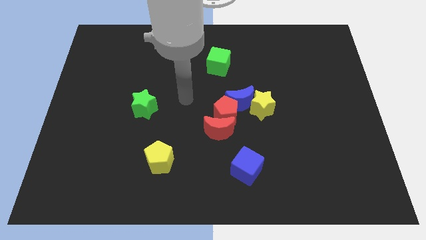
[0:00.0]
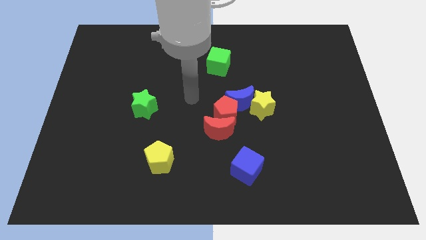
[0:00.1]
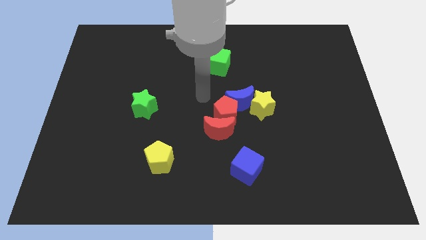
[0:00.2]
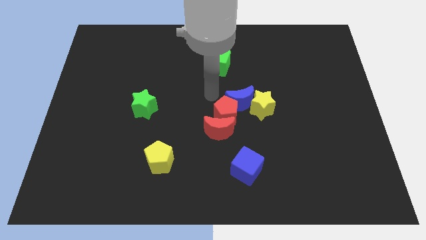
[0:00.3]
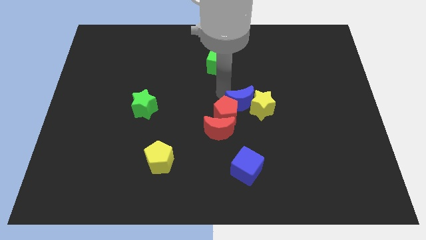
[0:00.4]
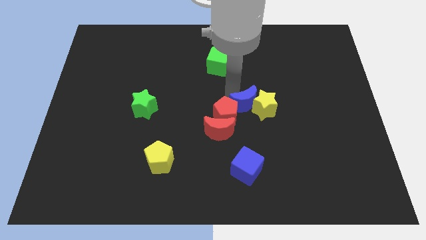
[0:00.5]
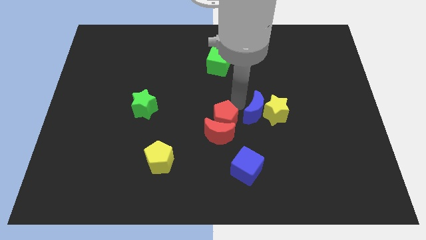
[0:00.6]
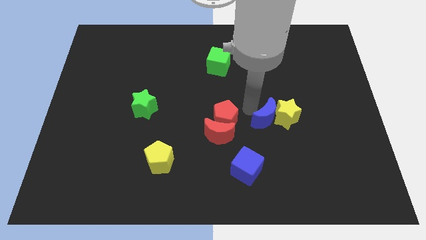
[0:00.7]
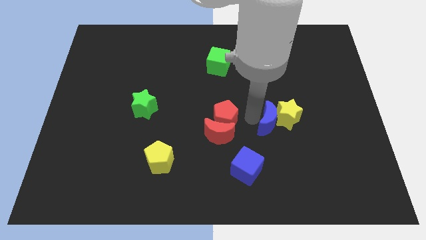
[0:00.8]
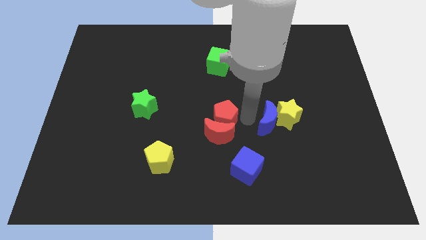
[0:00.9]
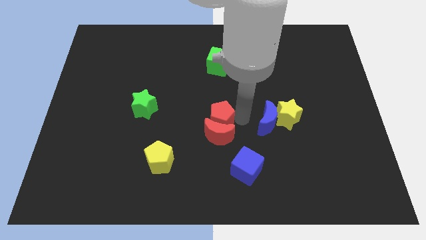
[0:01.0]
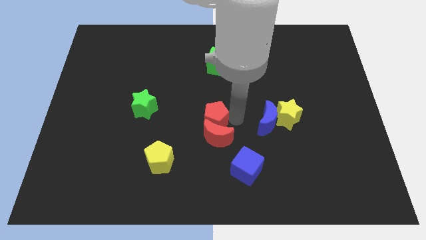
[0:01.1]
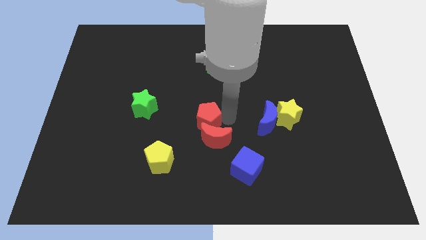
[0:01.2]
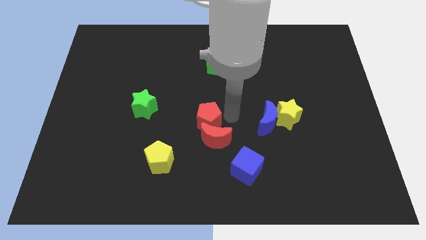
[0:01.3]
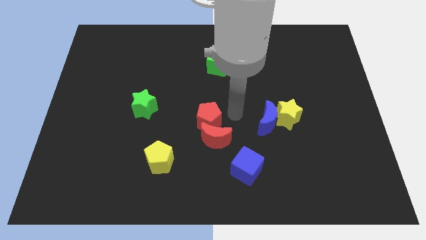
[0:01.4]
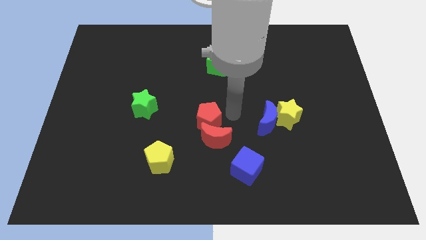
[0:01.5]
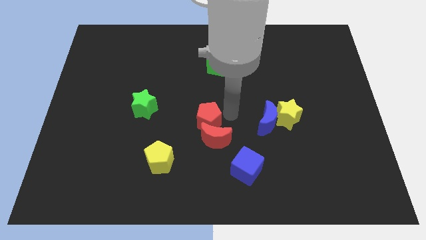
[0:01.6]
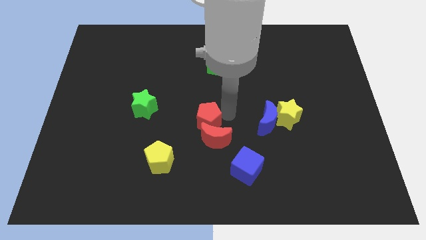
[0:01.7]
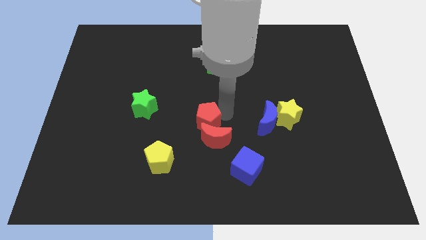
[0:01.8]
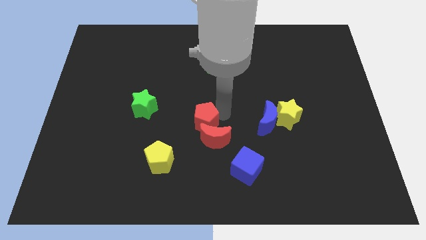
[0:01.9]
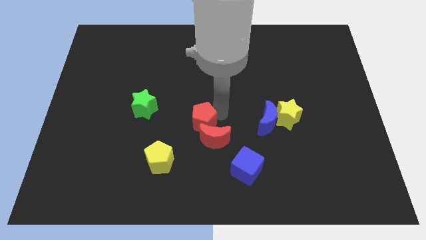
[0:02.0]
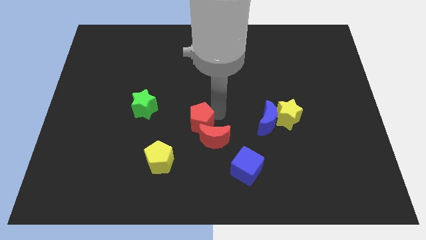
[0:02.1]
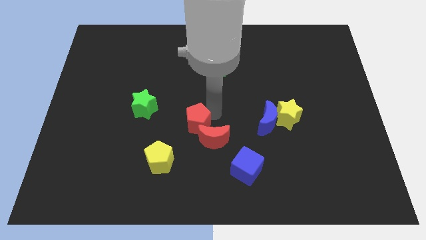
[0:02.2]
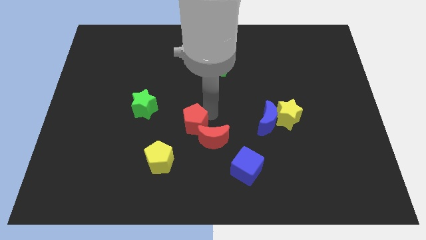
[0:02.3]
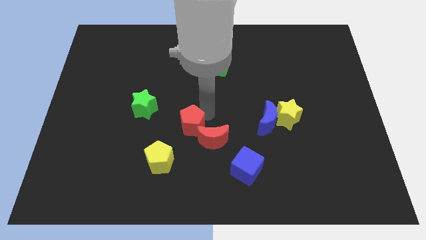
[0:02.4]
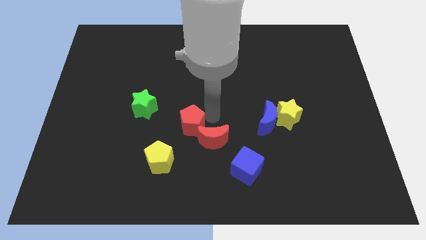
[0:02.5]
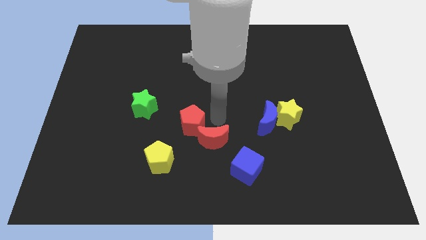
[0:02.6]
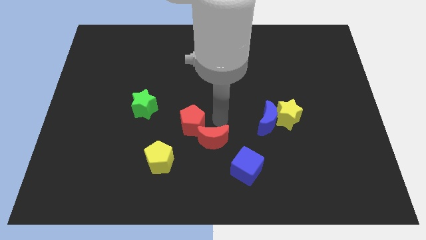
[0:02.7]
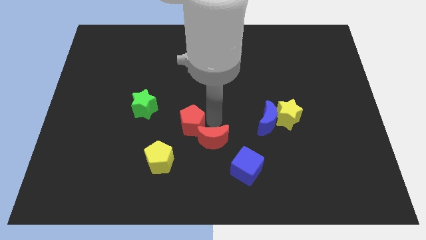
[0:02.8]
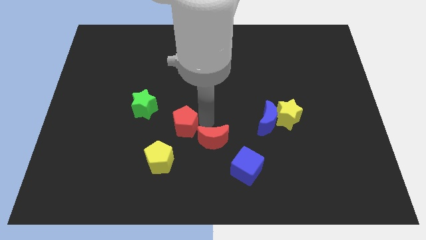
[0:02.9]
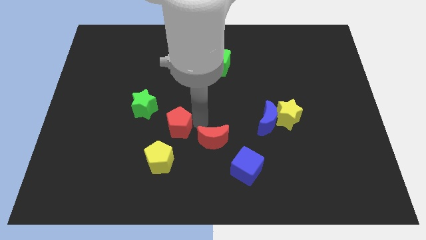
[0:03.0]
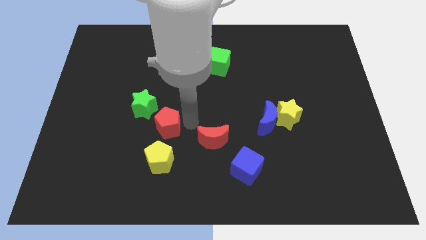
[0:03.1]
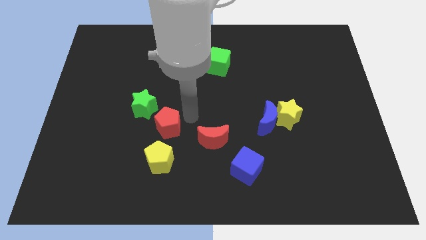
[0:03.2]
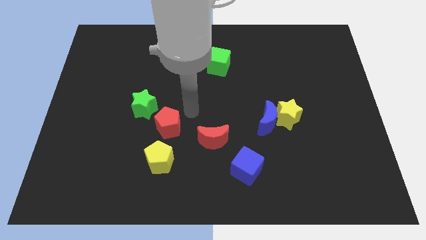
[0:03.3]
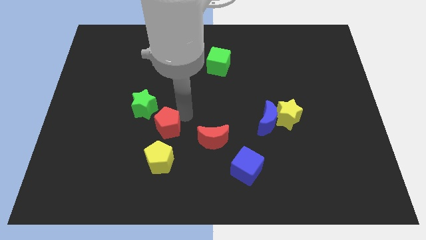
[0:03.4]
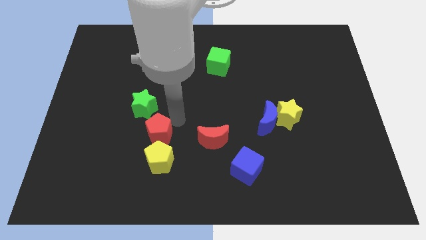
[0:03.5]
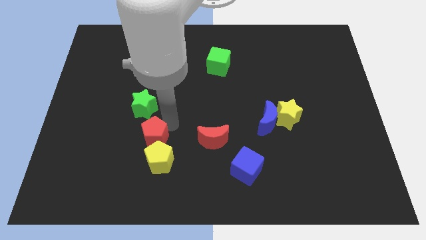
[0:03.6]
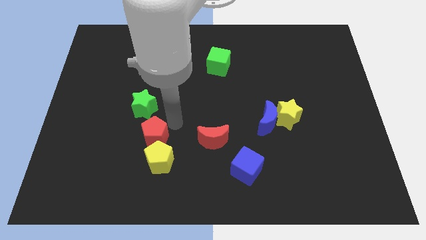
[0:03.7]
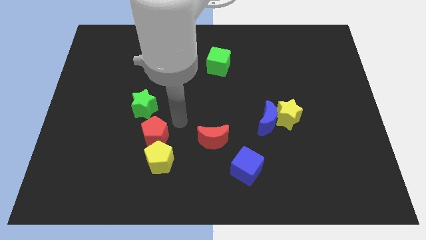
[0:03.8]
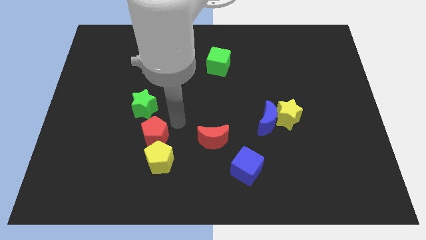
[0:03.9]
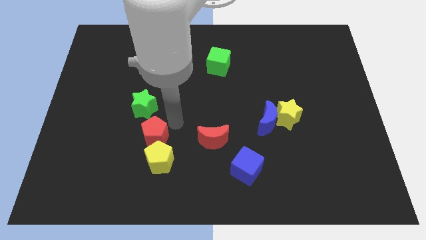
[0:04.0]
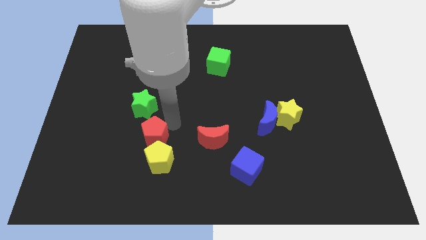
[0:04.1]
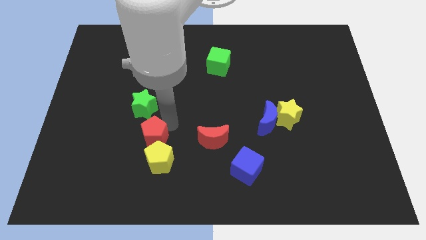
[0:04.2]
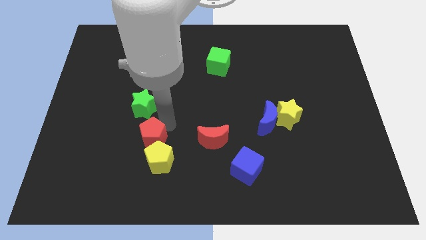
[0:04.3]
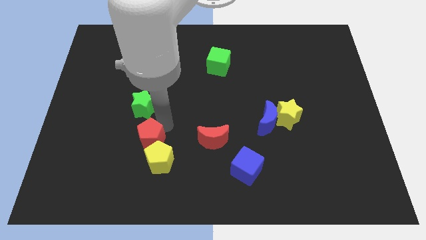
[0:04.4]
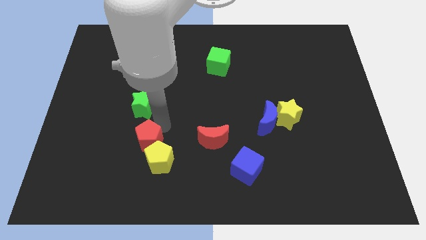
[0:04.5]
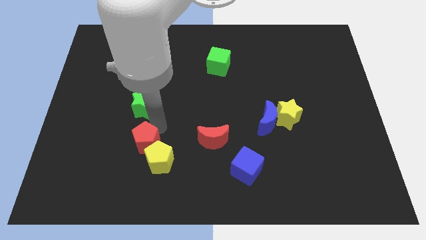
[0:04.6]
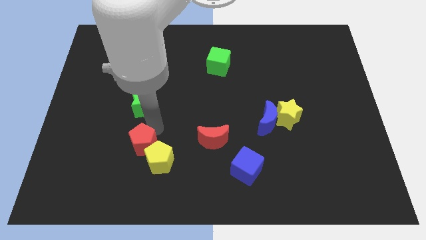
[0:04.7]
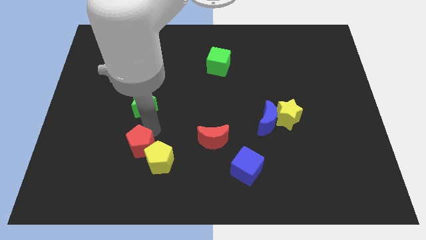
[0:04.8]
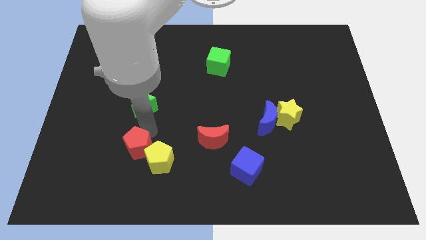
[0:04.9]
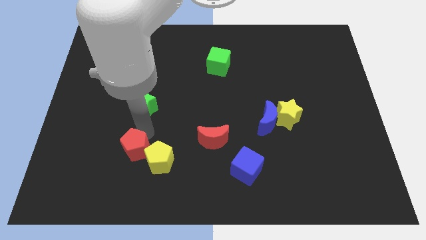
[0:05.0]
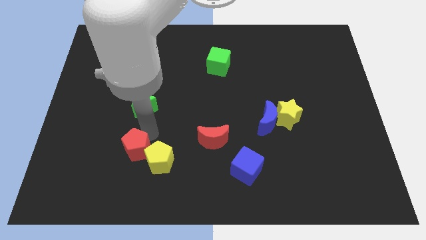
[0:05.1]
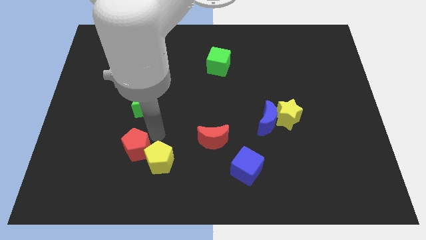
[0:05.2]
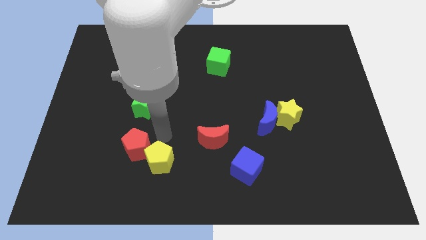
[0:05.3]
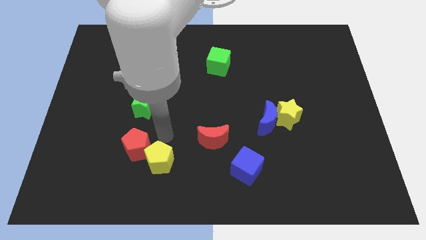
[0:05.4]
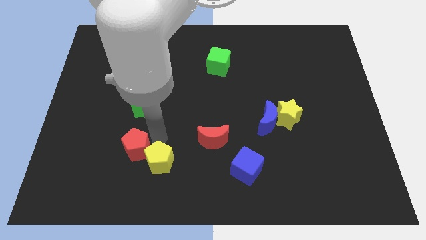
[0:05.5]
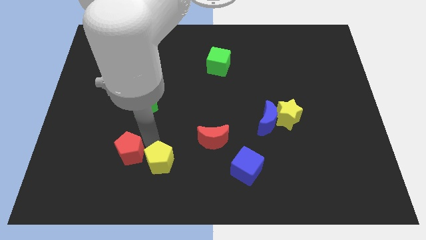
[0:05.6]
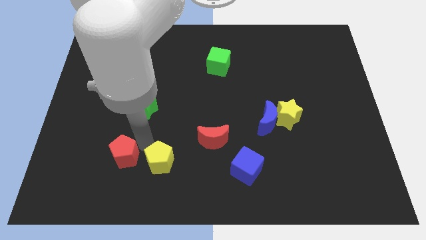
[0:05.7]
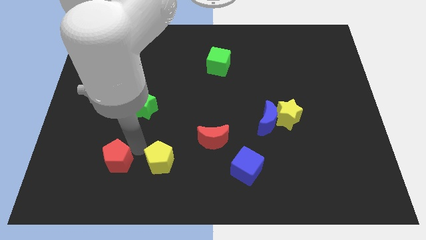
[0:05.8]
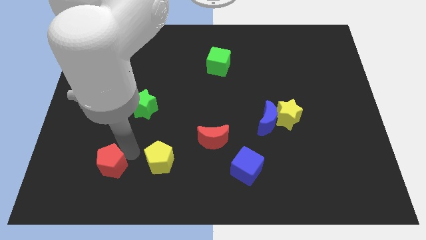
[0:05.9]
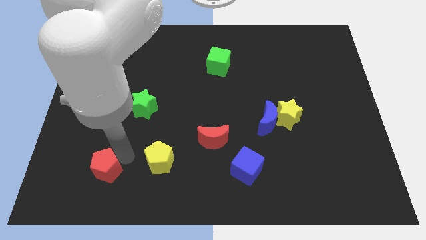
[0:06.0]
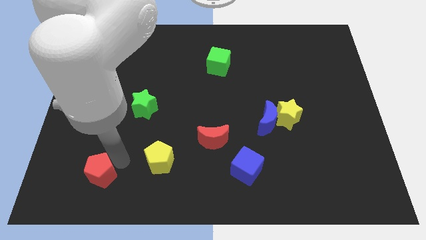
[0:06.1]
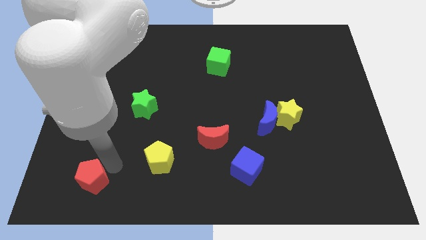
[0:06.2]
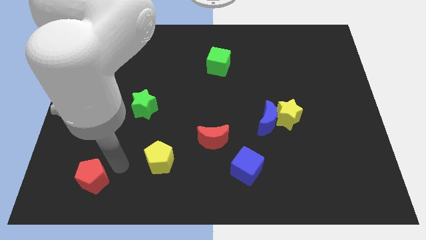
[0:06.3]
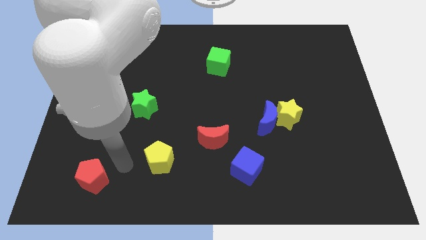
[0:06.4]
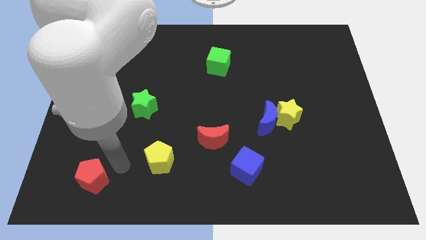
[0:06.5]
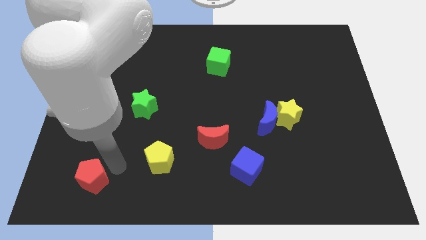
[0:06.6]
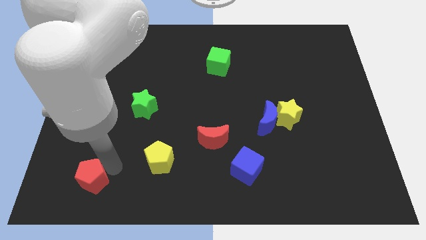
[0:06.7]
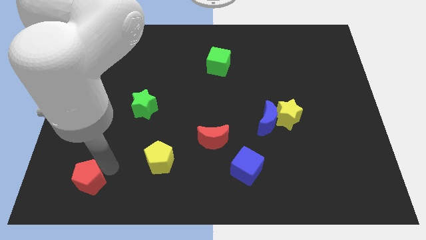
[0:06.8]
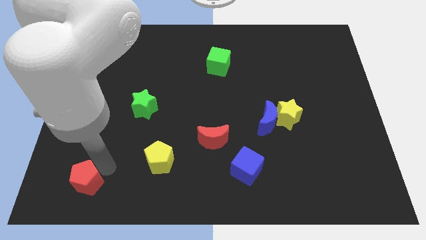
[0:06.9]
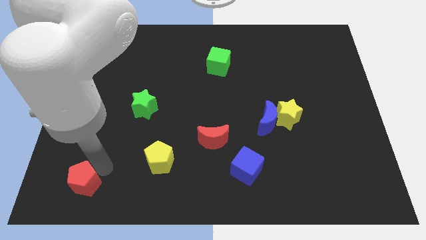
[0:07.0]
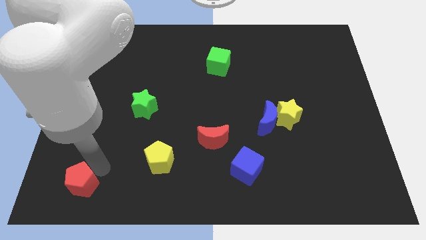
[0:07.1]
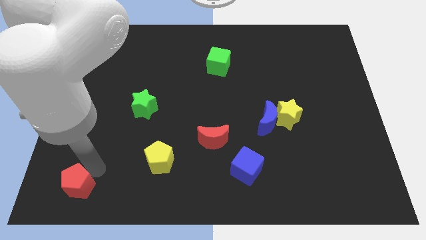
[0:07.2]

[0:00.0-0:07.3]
put the red pentagon to the bottom left of the board
